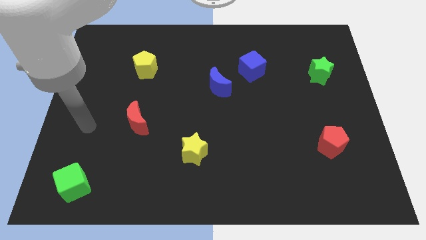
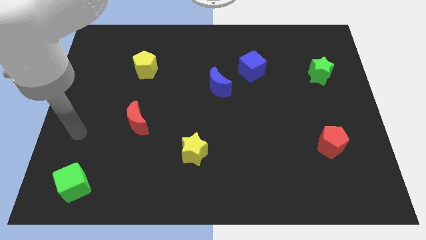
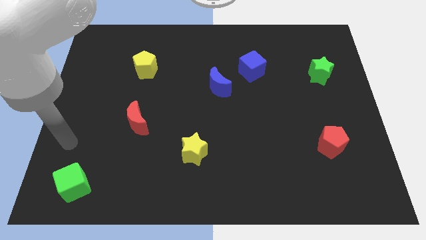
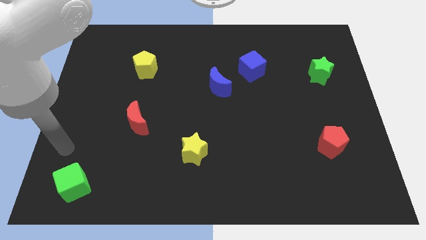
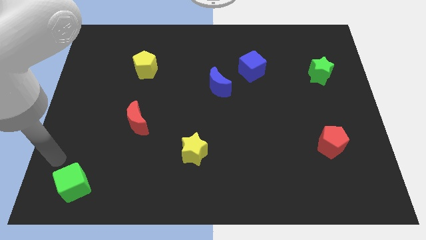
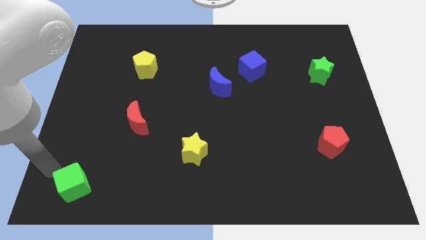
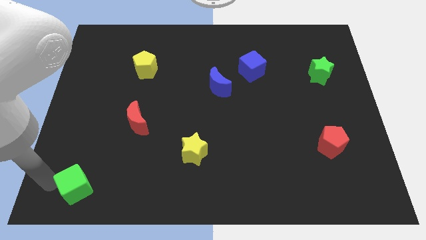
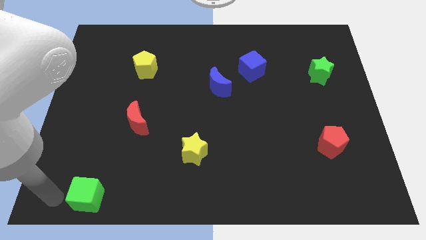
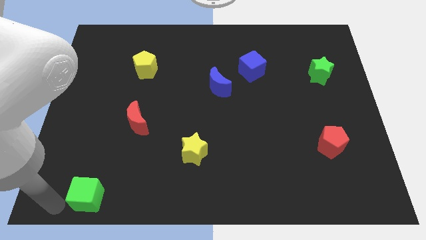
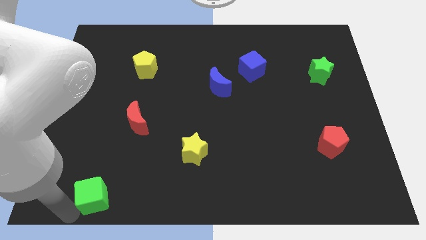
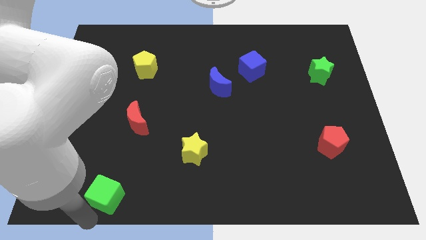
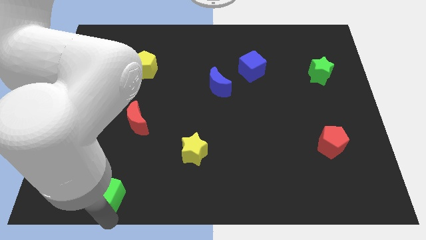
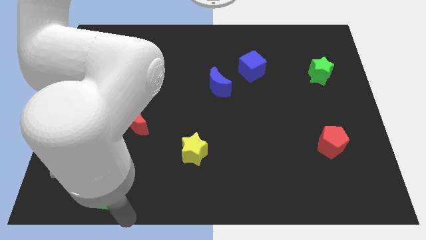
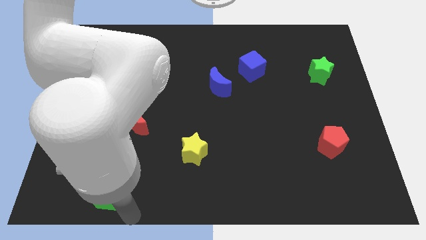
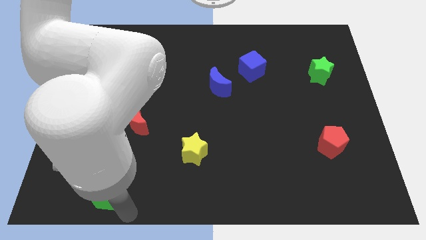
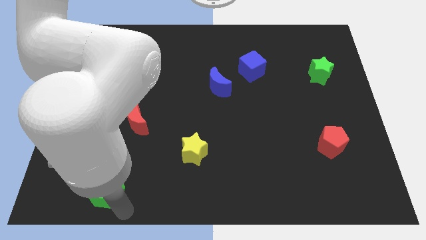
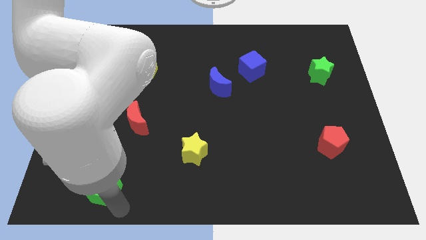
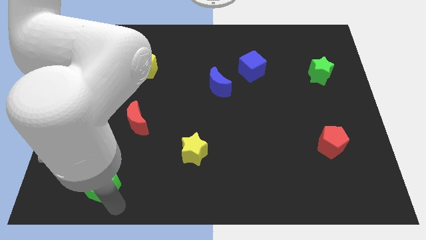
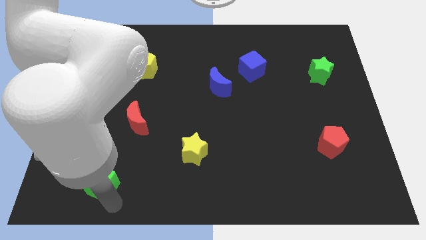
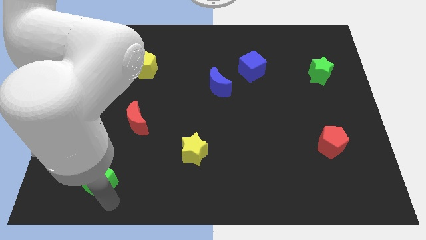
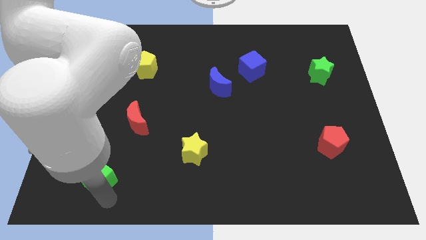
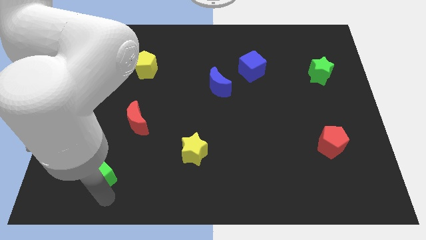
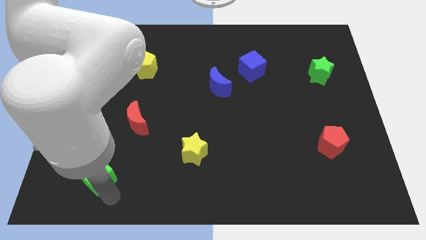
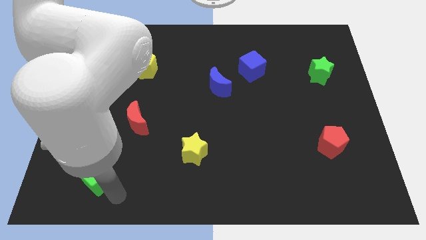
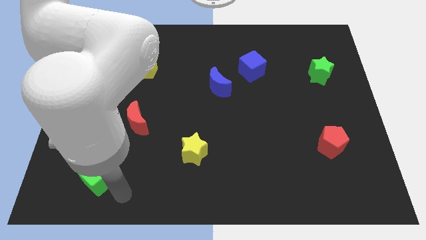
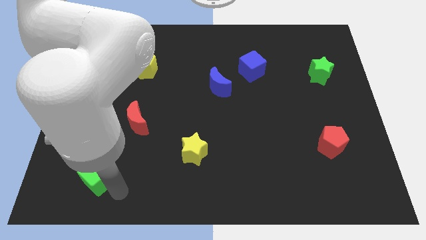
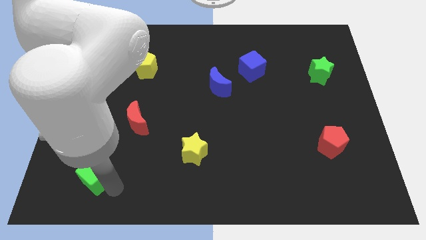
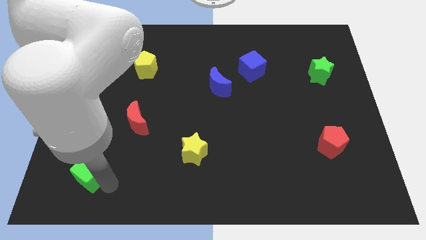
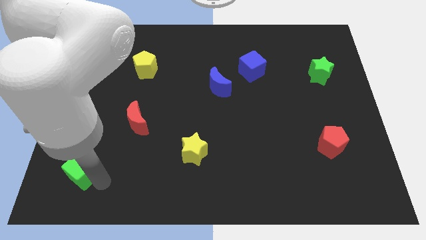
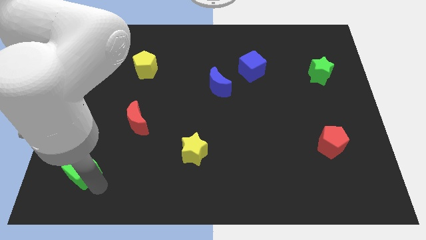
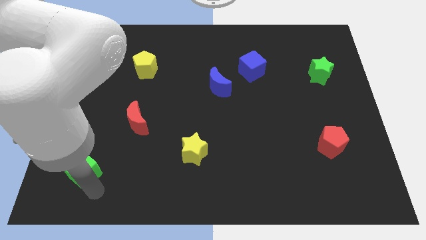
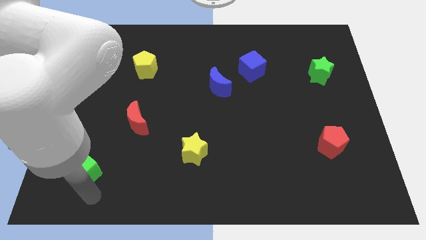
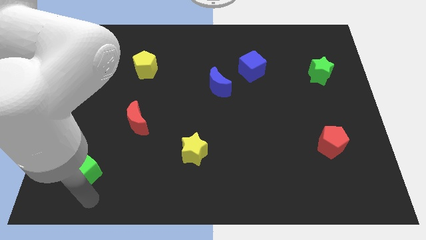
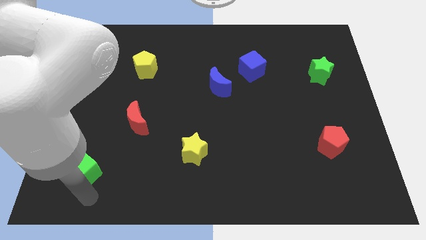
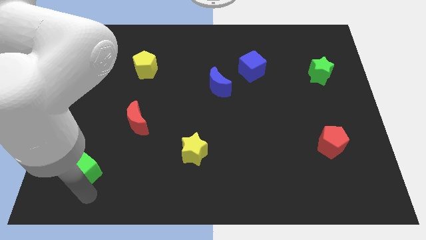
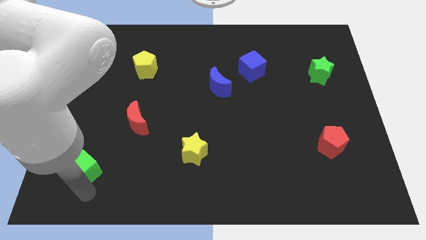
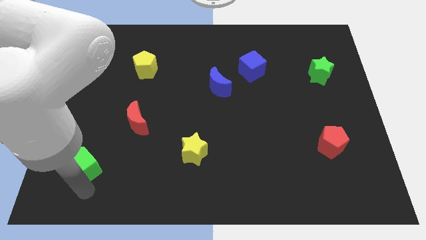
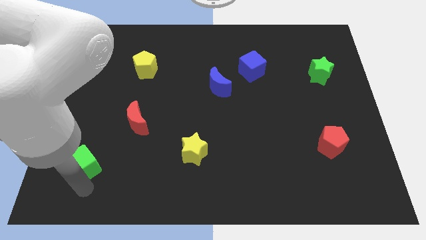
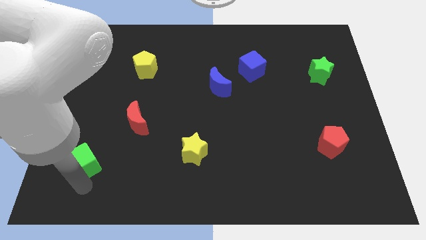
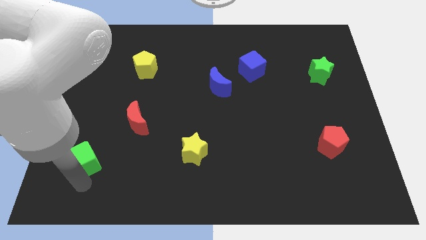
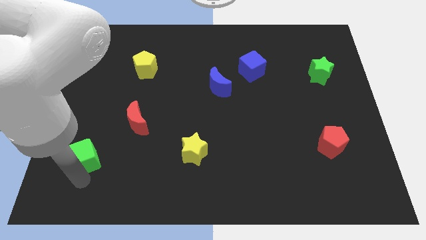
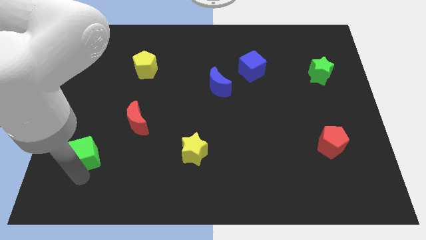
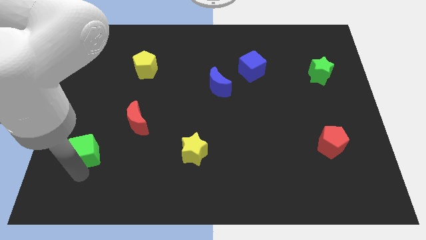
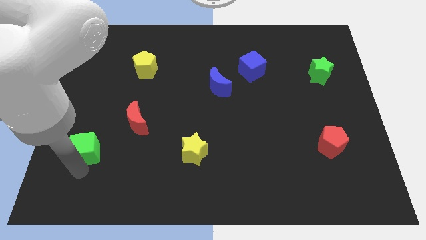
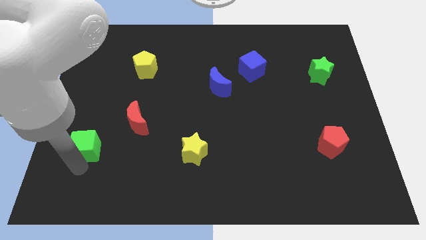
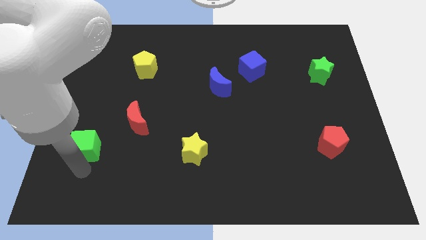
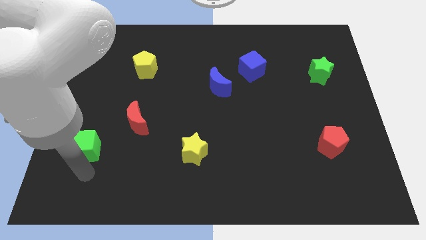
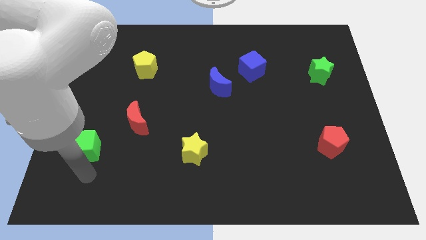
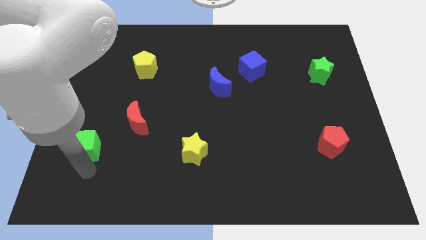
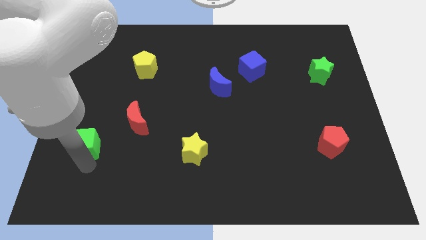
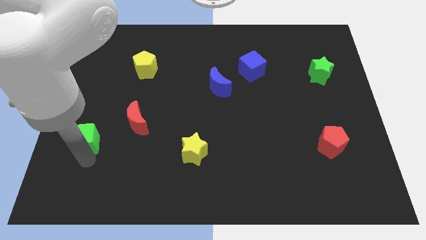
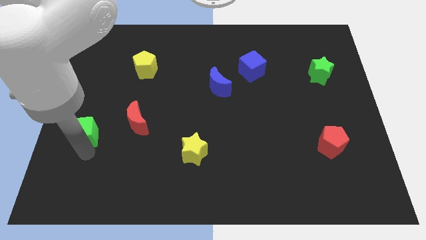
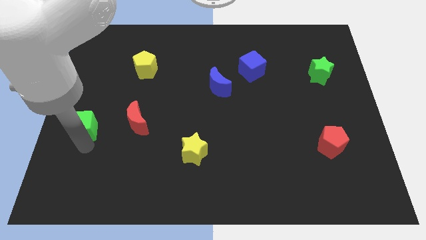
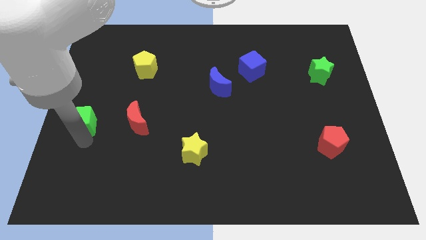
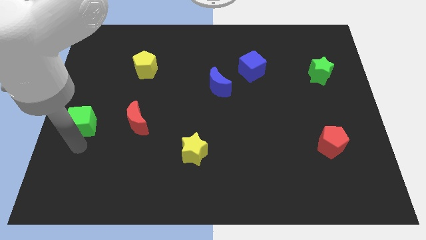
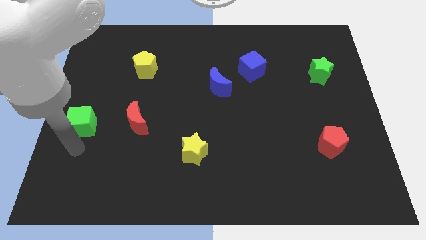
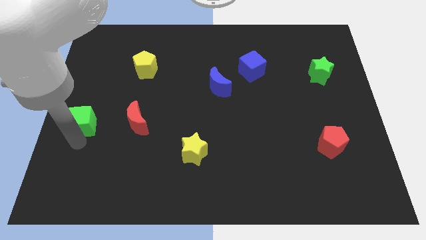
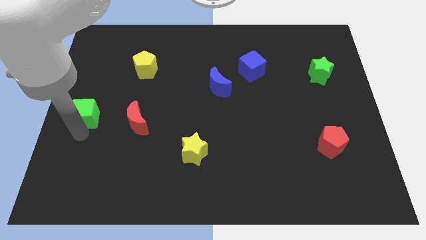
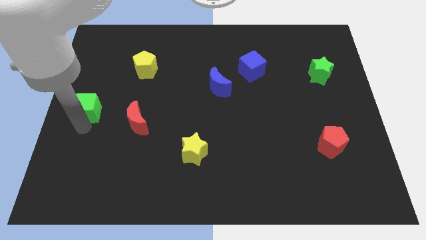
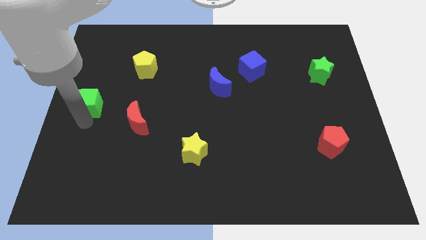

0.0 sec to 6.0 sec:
move the green cube upwards

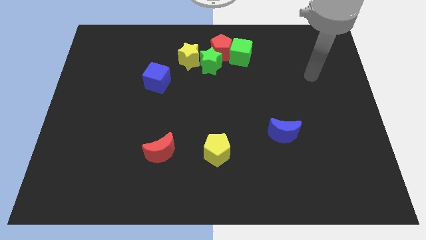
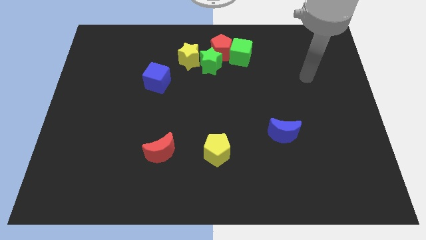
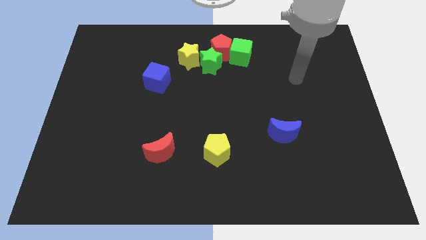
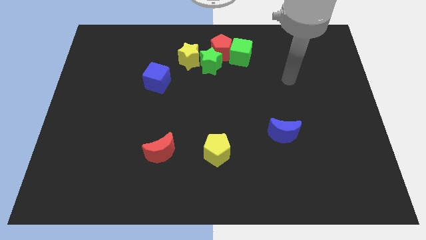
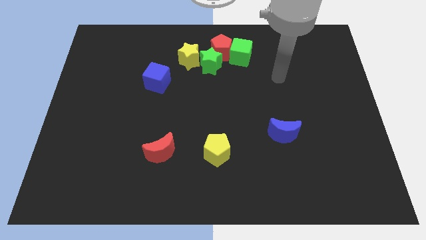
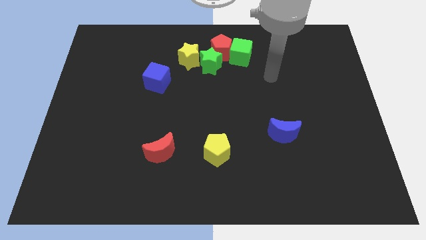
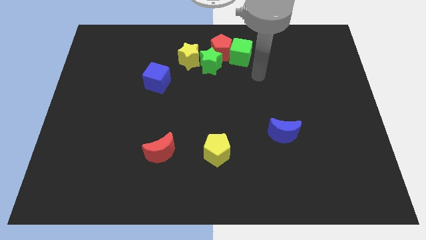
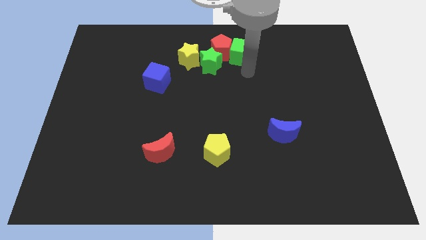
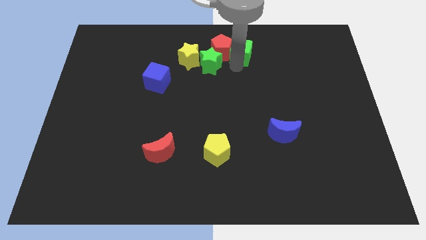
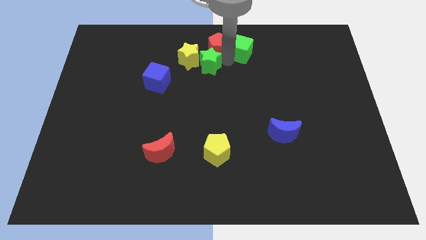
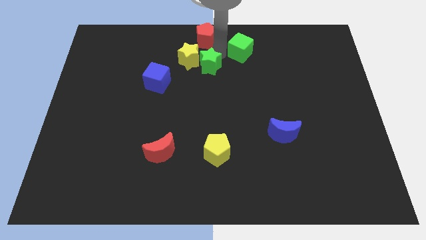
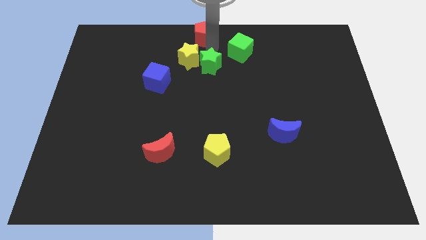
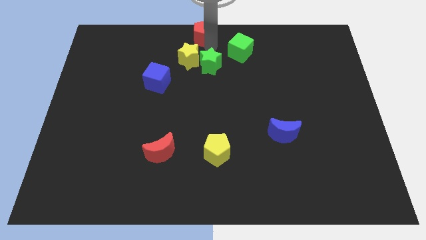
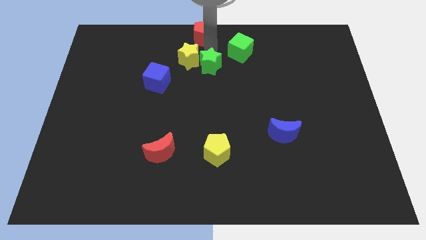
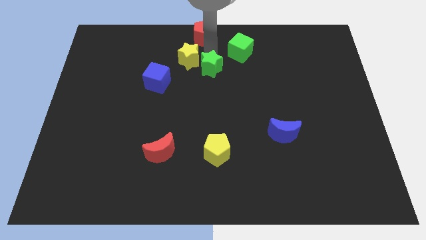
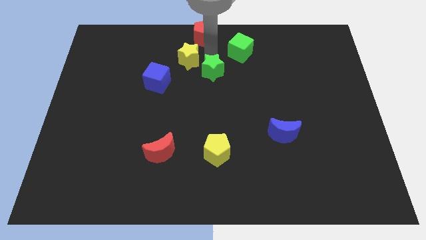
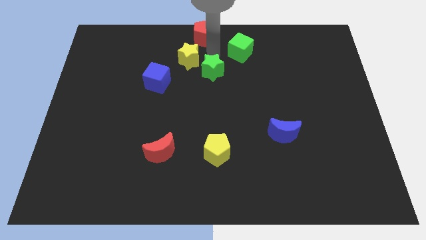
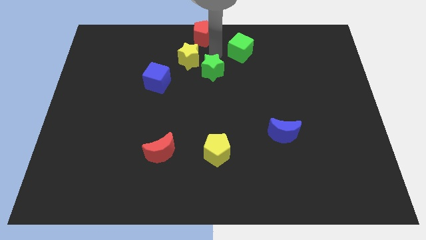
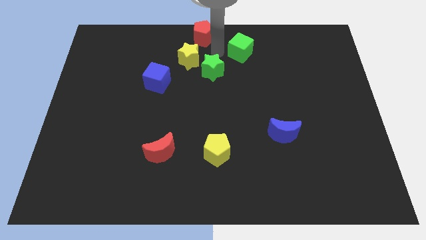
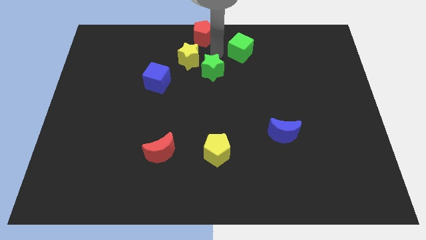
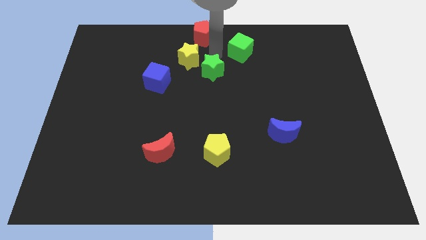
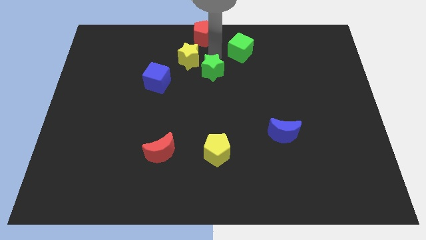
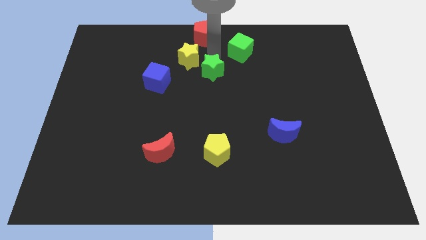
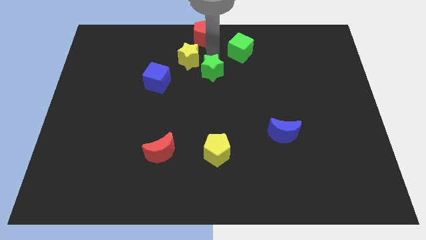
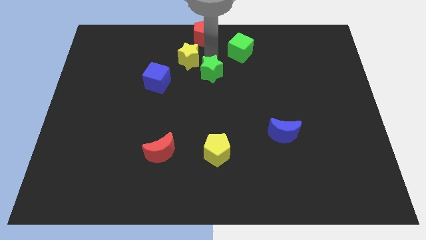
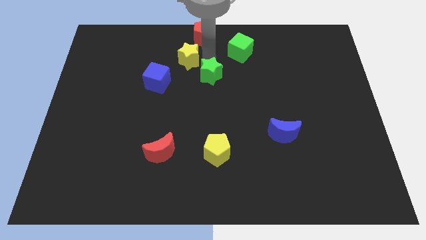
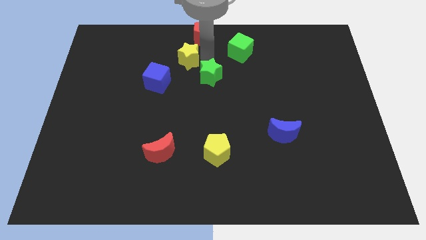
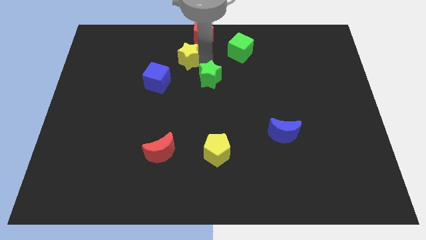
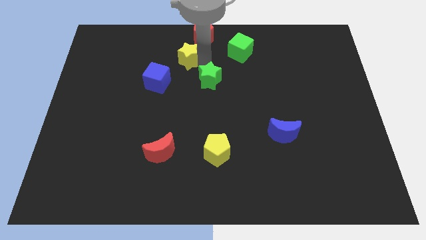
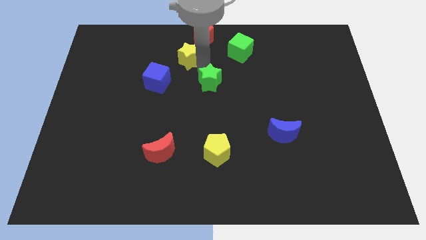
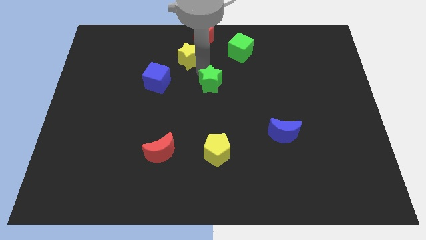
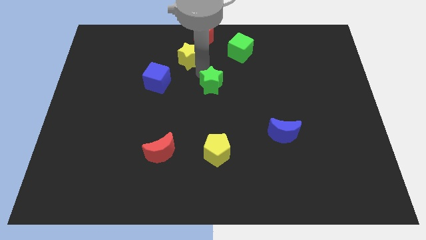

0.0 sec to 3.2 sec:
slide the green star down a little bit
